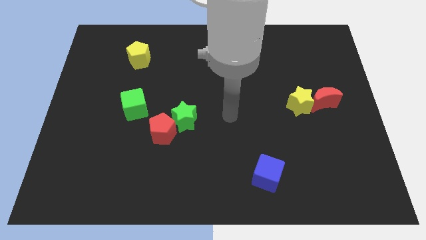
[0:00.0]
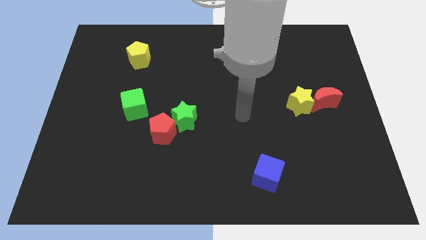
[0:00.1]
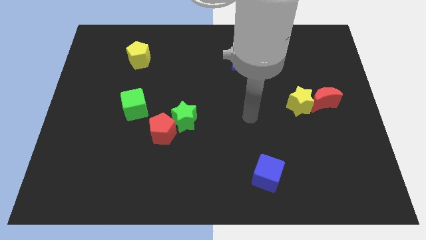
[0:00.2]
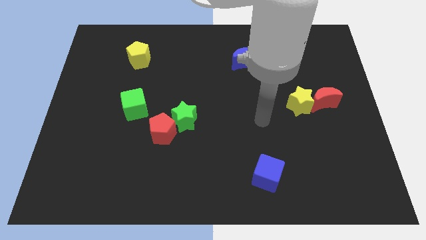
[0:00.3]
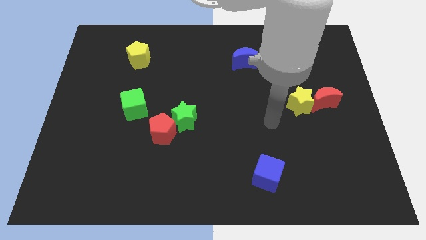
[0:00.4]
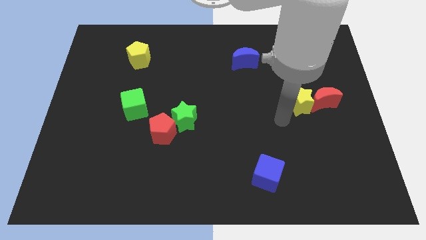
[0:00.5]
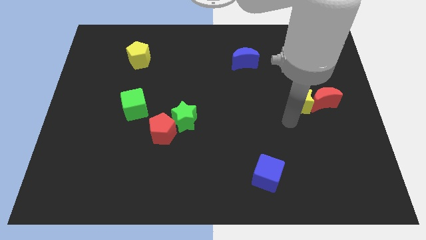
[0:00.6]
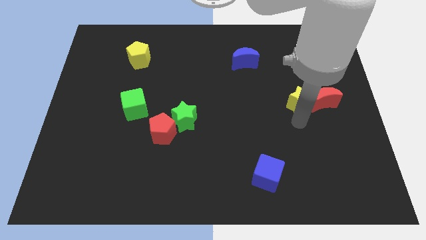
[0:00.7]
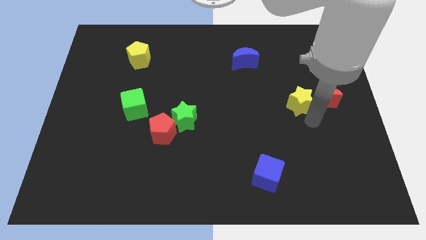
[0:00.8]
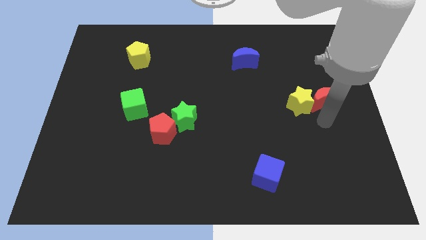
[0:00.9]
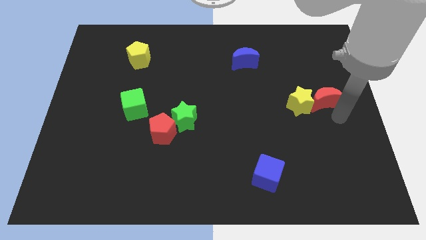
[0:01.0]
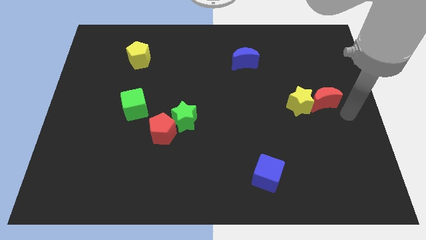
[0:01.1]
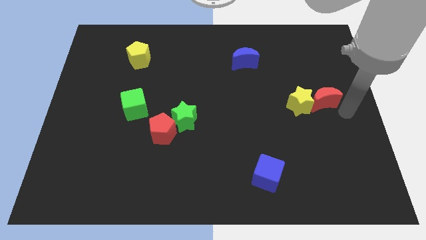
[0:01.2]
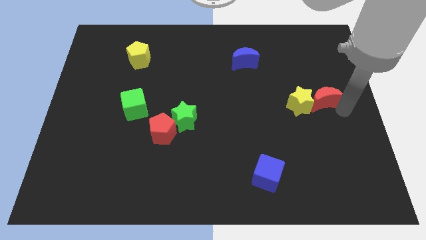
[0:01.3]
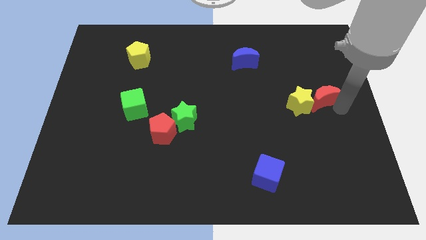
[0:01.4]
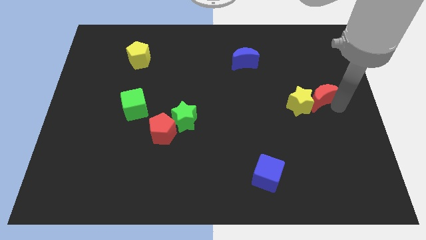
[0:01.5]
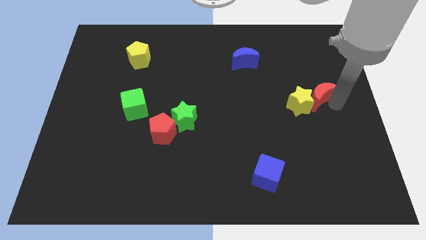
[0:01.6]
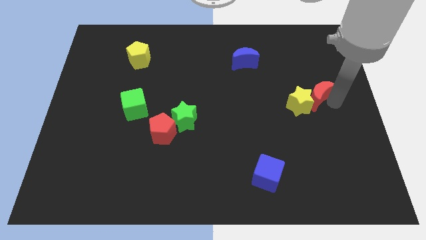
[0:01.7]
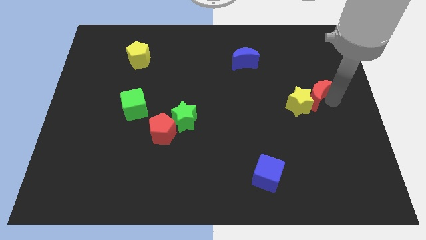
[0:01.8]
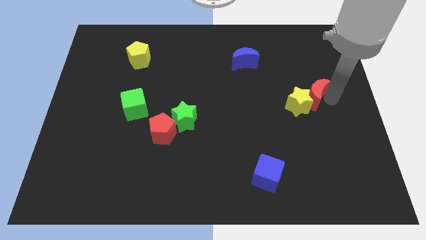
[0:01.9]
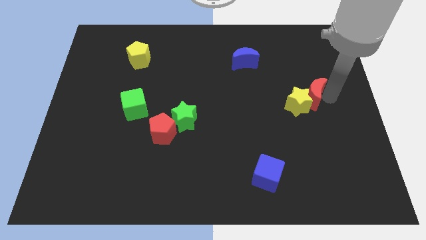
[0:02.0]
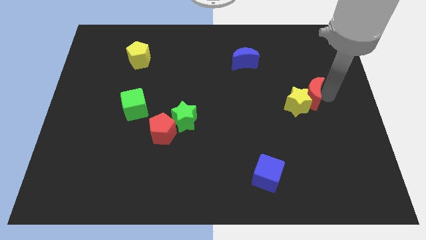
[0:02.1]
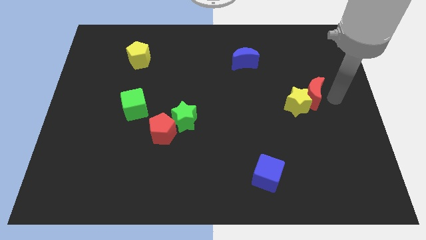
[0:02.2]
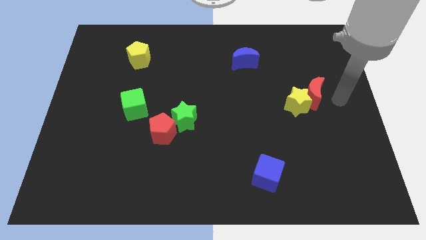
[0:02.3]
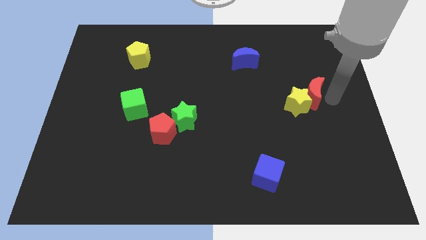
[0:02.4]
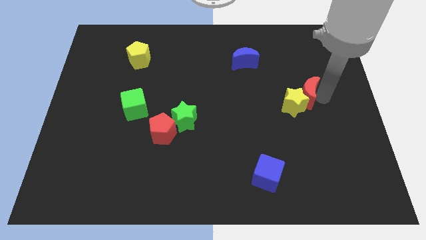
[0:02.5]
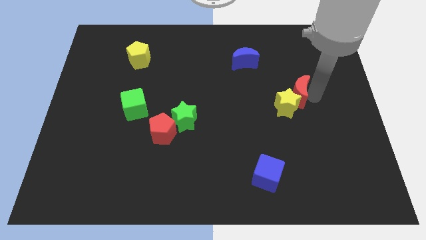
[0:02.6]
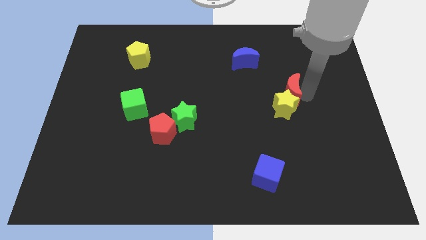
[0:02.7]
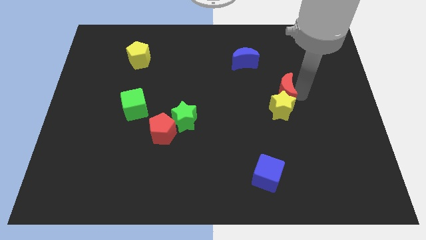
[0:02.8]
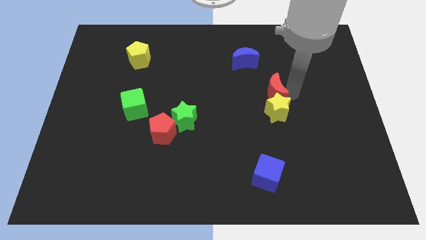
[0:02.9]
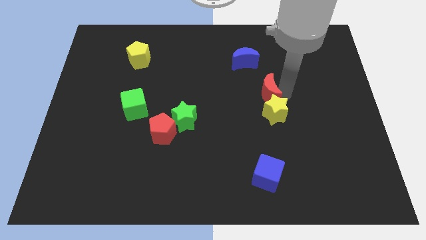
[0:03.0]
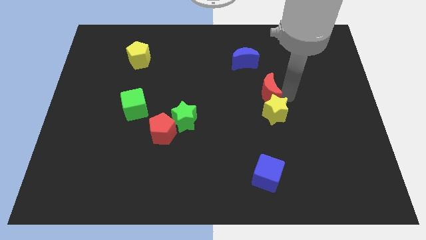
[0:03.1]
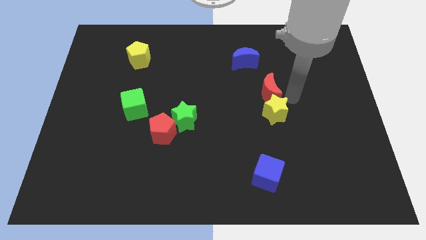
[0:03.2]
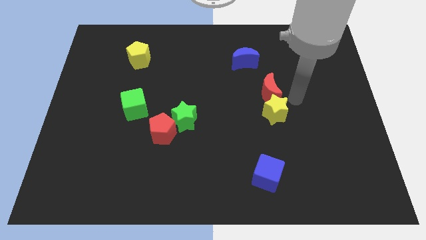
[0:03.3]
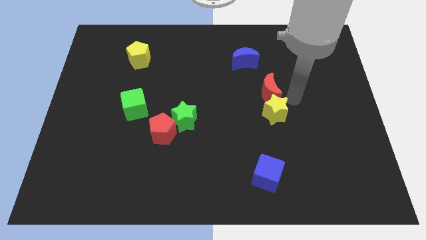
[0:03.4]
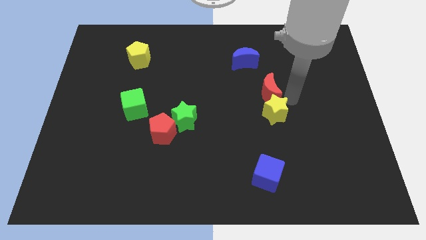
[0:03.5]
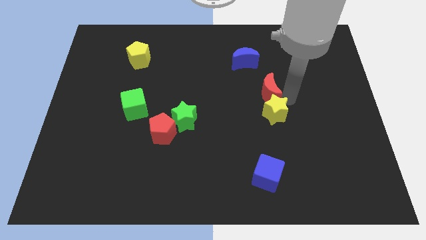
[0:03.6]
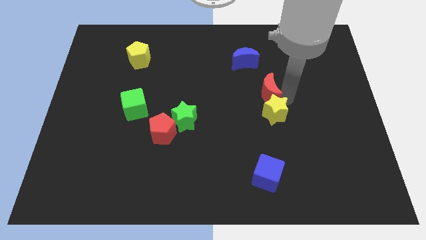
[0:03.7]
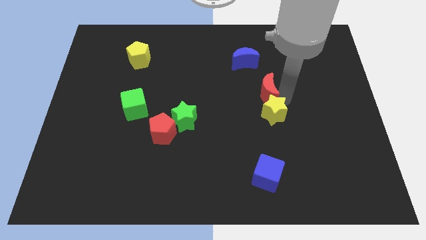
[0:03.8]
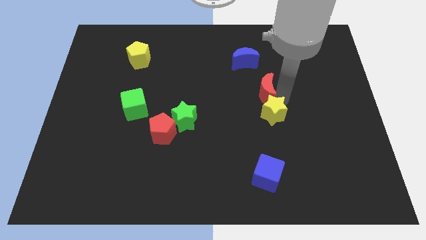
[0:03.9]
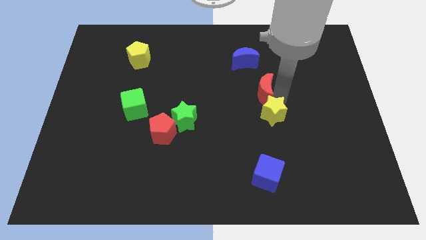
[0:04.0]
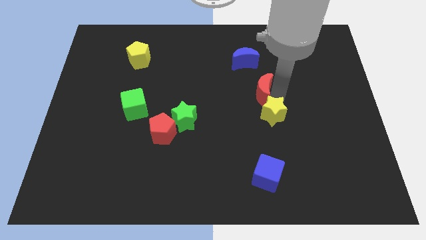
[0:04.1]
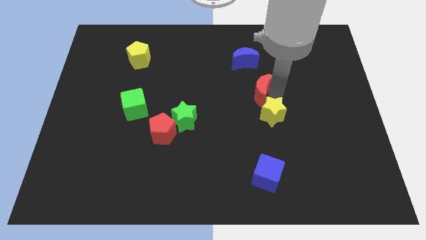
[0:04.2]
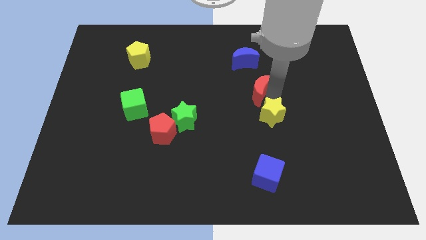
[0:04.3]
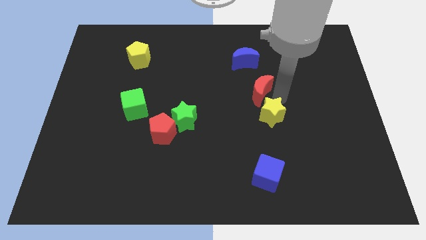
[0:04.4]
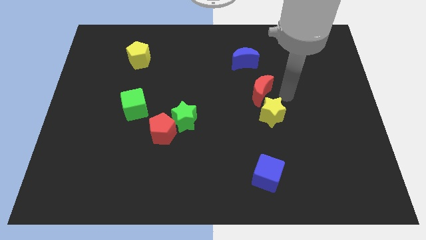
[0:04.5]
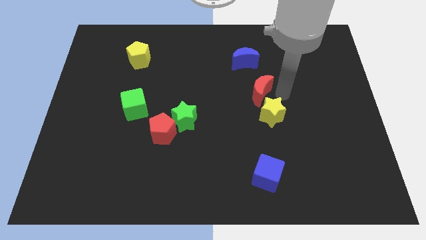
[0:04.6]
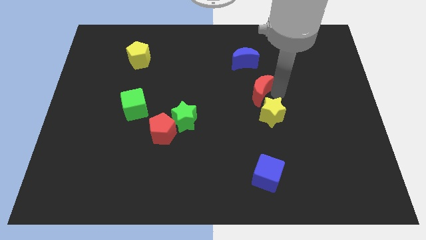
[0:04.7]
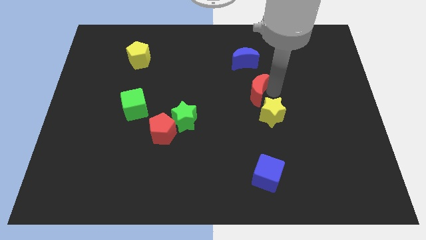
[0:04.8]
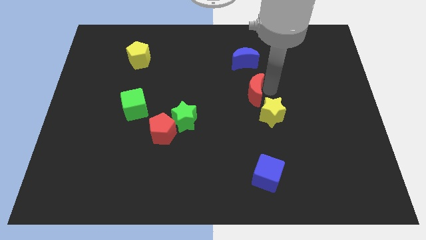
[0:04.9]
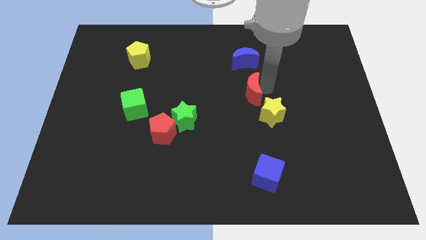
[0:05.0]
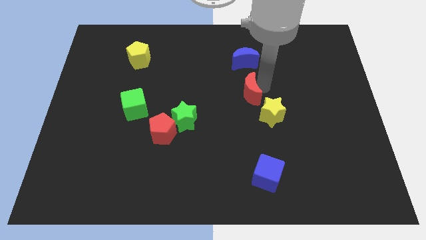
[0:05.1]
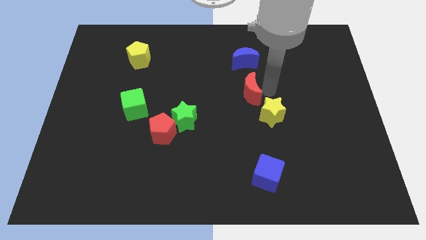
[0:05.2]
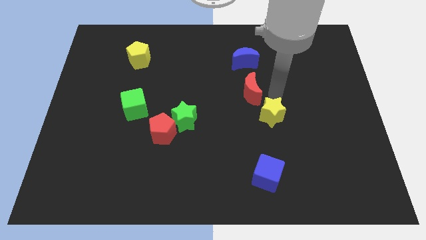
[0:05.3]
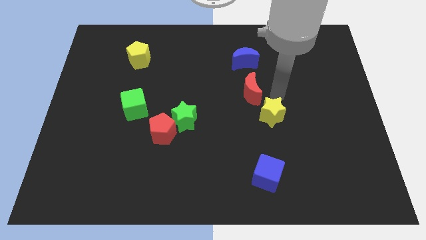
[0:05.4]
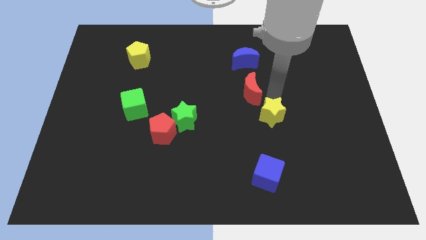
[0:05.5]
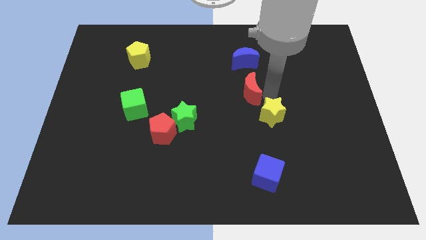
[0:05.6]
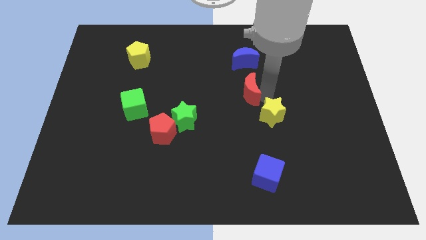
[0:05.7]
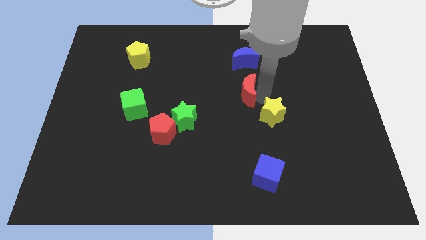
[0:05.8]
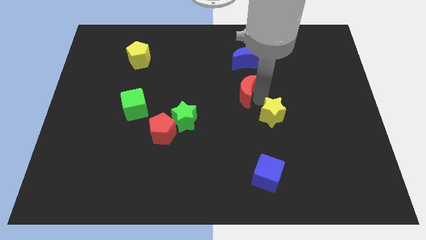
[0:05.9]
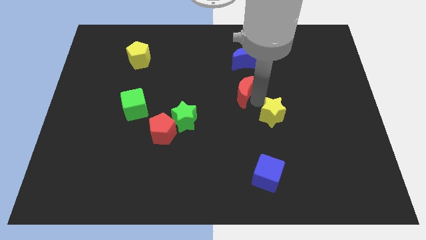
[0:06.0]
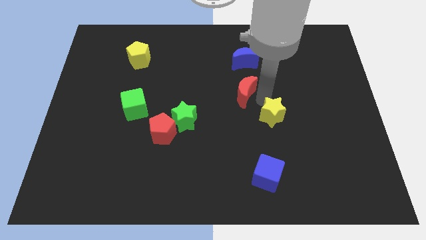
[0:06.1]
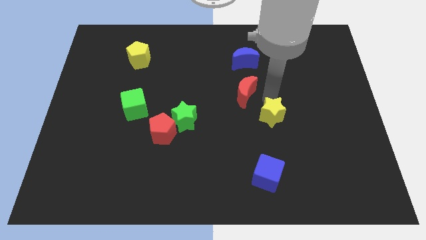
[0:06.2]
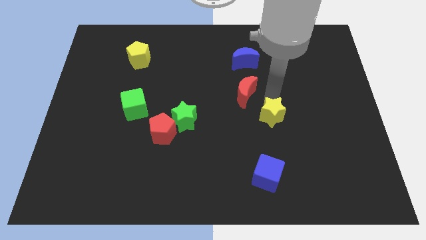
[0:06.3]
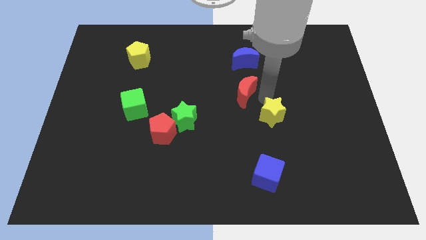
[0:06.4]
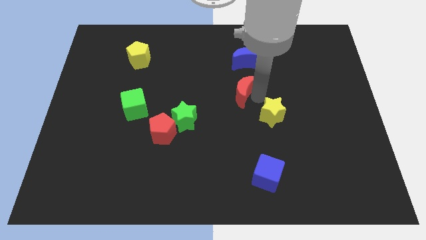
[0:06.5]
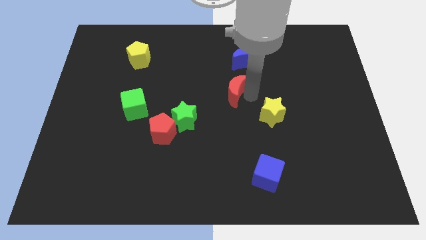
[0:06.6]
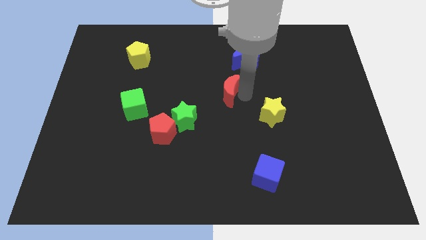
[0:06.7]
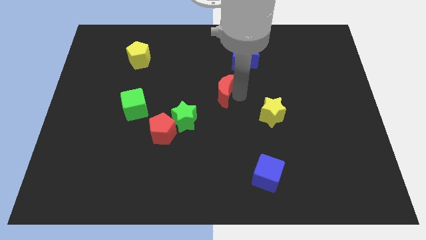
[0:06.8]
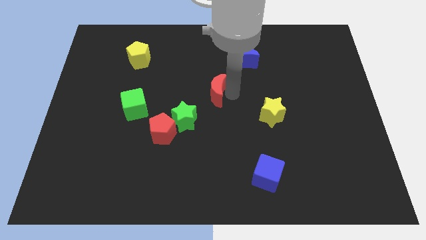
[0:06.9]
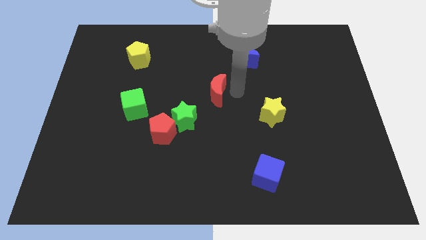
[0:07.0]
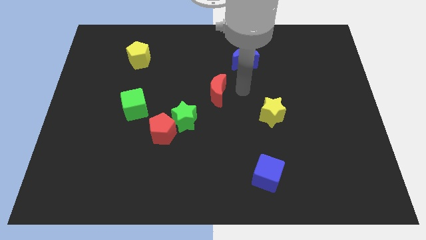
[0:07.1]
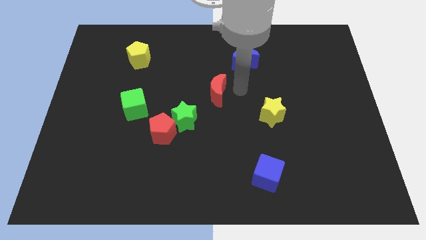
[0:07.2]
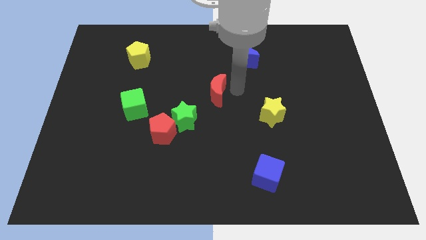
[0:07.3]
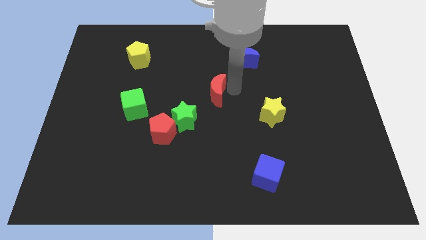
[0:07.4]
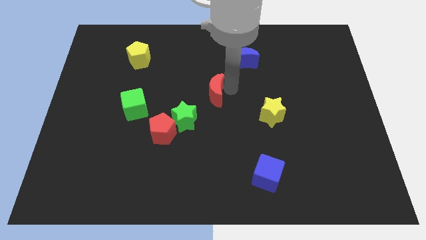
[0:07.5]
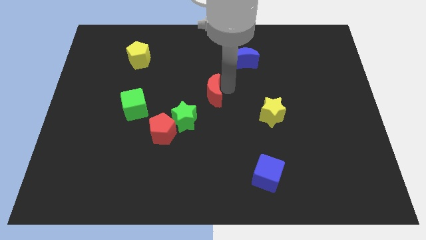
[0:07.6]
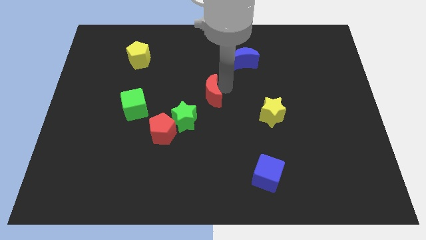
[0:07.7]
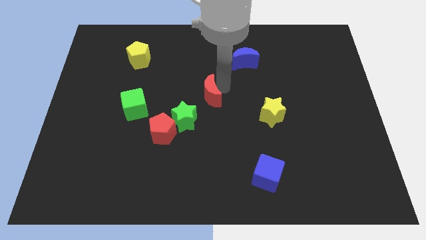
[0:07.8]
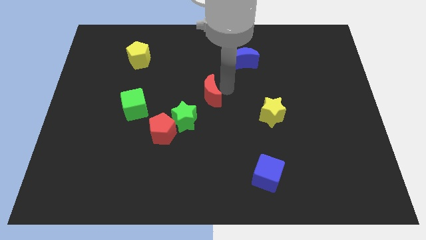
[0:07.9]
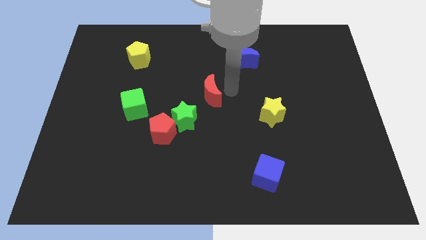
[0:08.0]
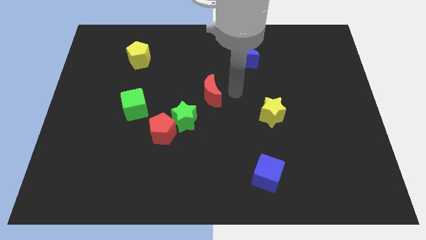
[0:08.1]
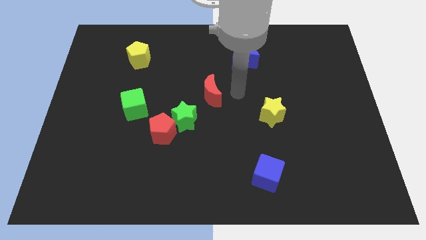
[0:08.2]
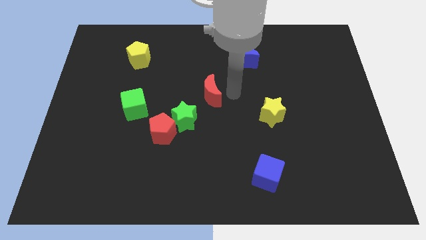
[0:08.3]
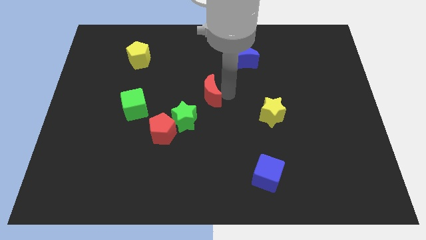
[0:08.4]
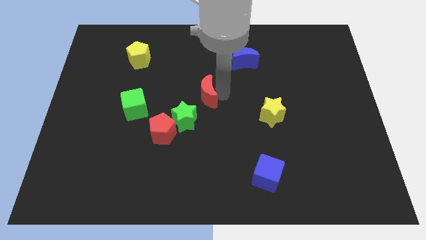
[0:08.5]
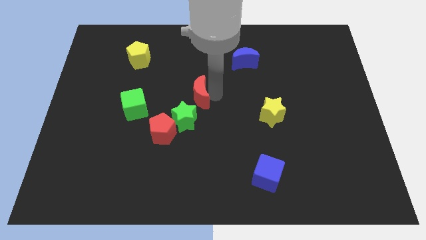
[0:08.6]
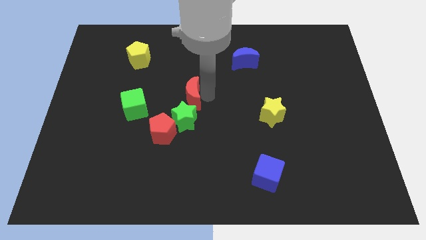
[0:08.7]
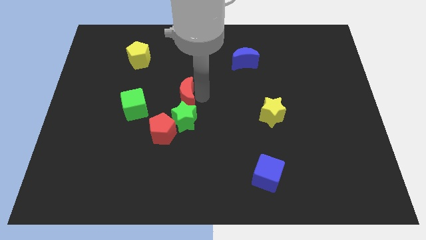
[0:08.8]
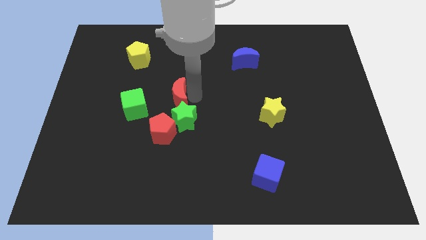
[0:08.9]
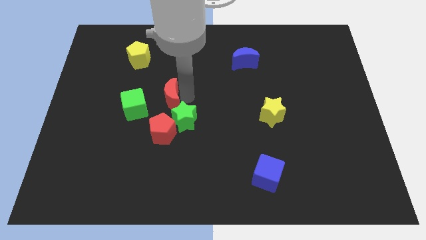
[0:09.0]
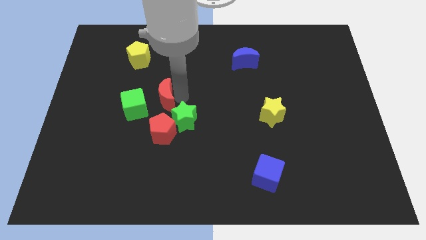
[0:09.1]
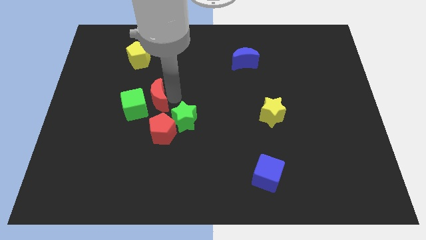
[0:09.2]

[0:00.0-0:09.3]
put the red moon to the green cube
